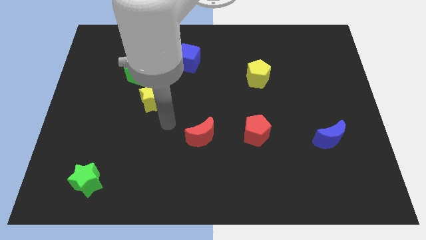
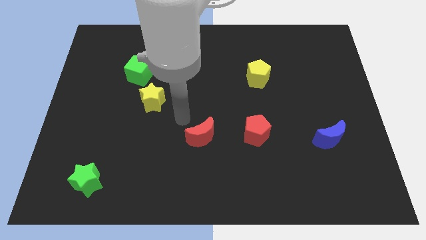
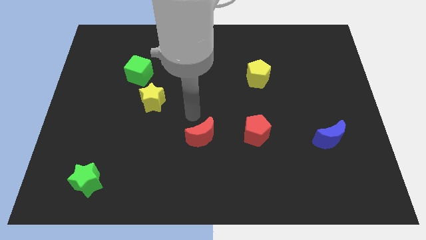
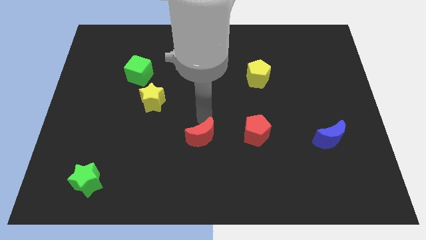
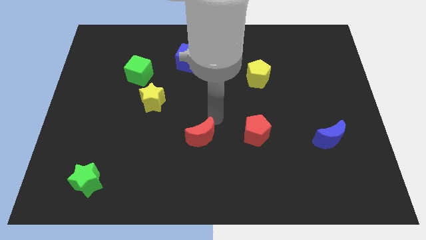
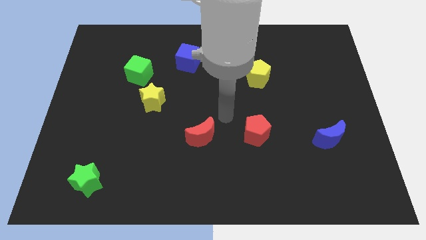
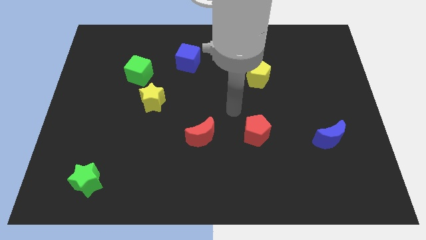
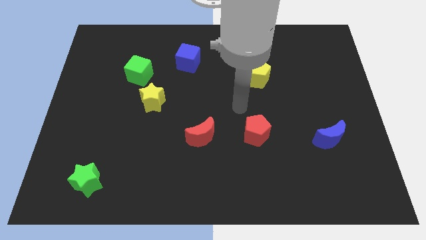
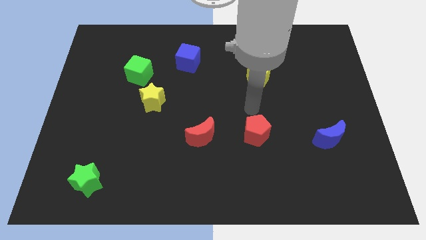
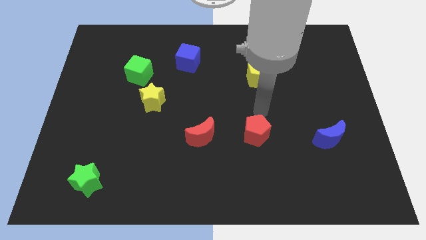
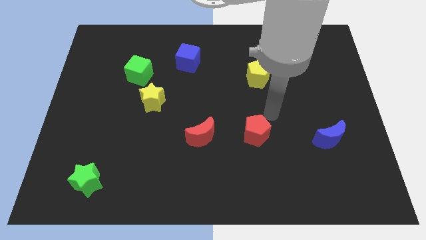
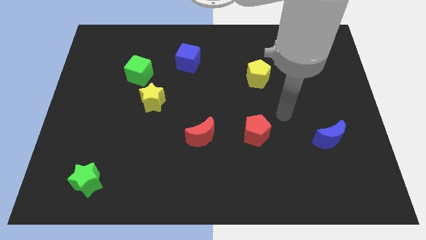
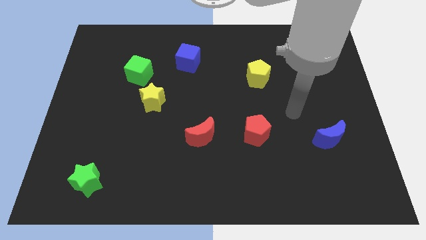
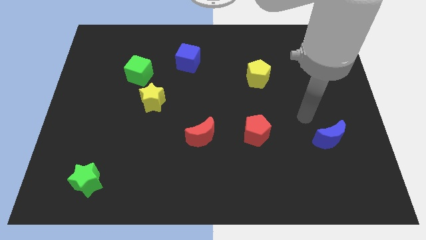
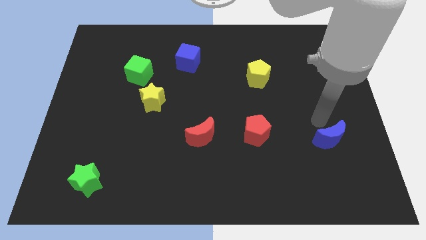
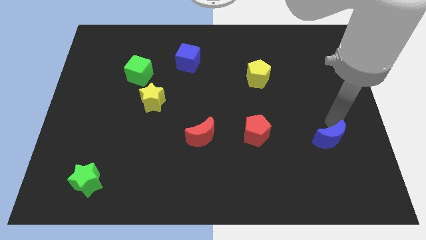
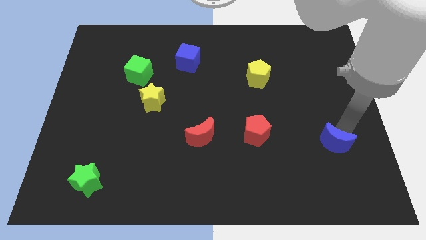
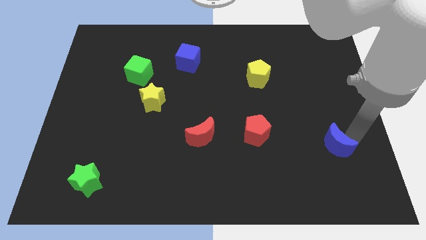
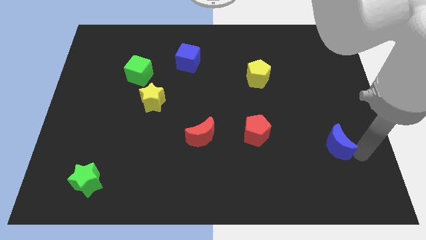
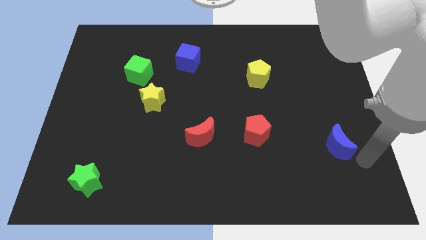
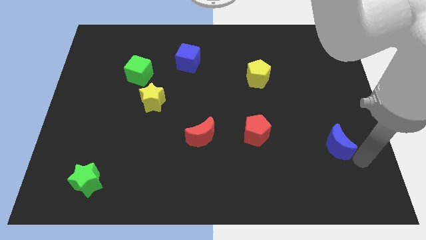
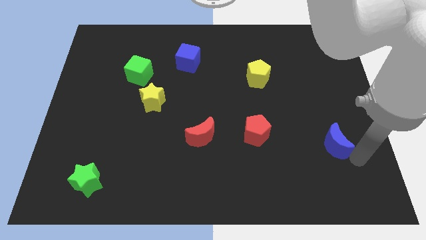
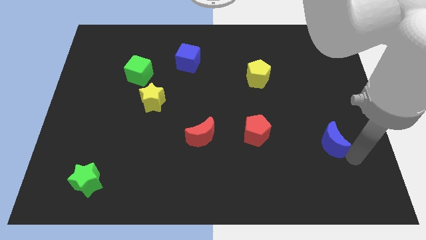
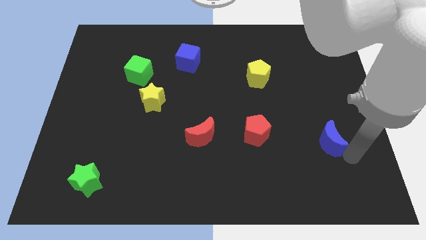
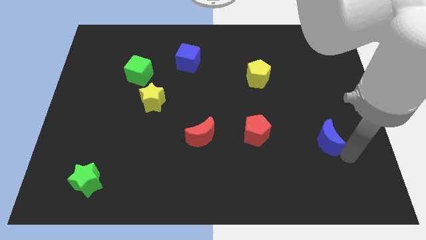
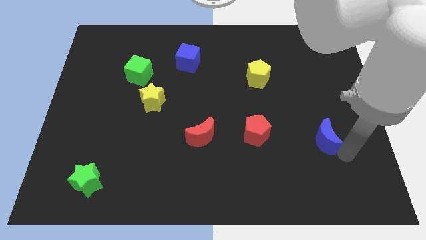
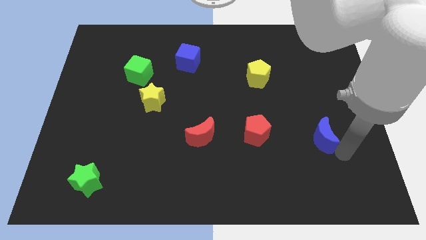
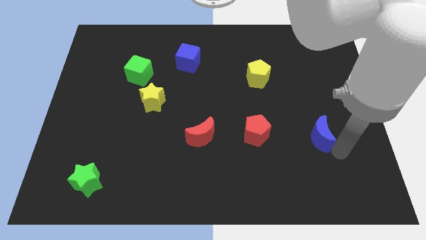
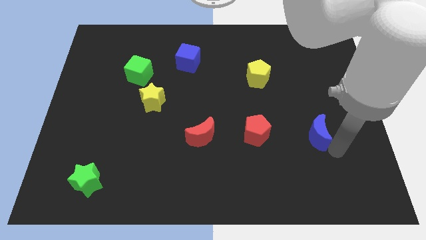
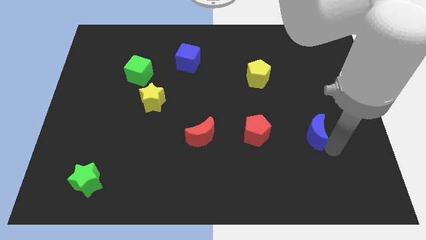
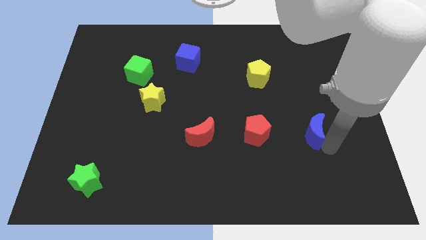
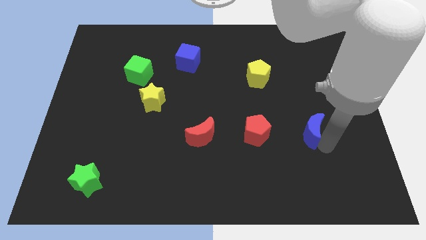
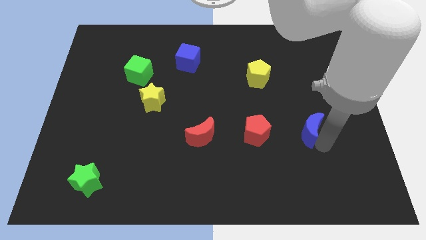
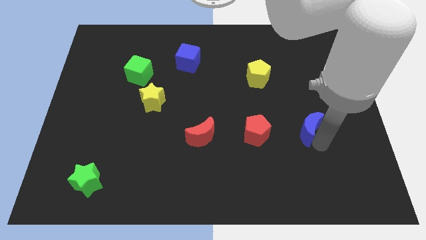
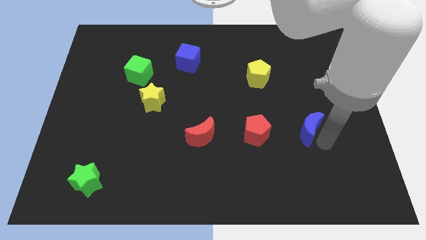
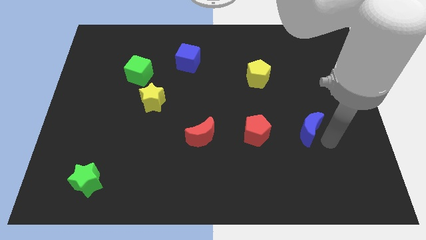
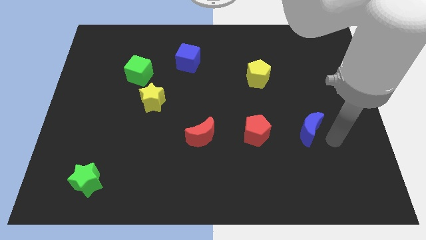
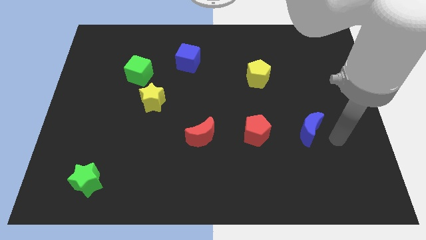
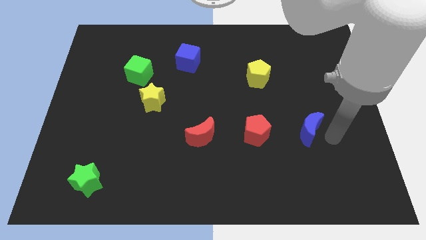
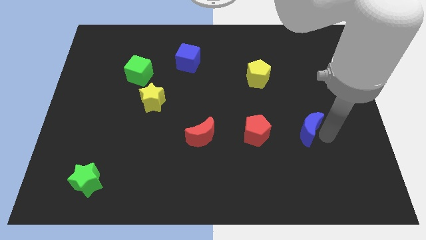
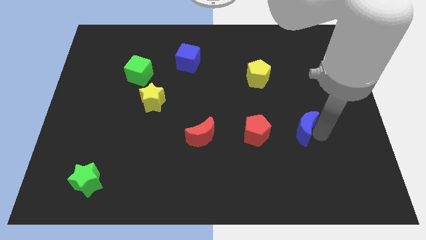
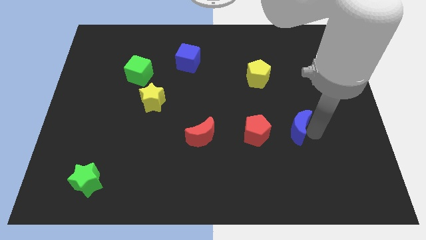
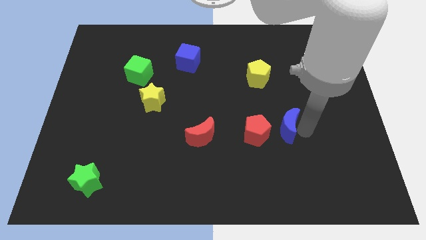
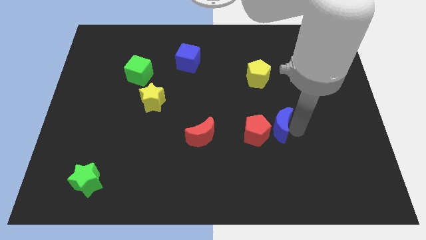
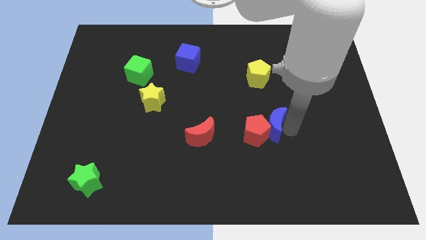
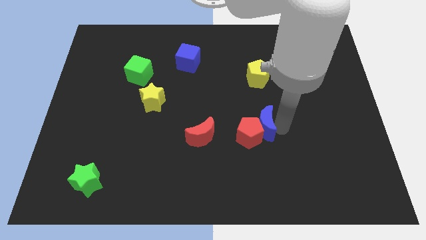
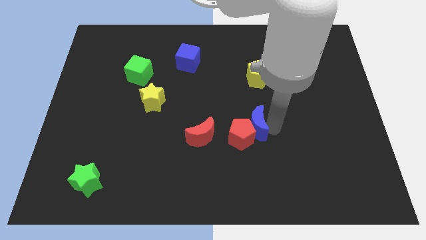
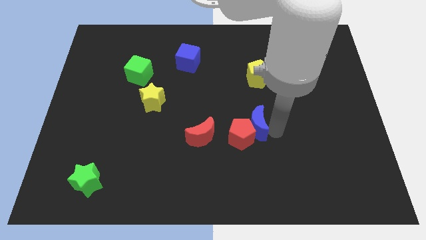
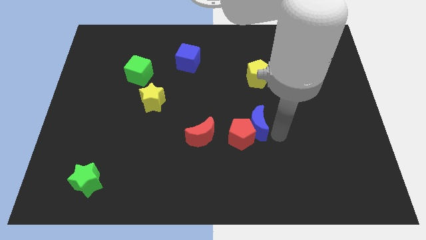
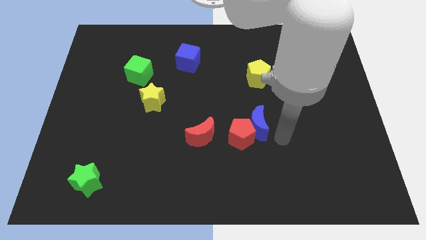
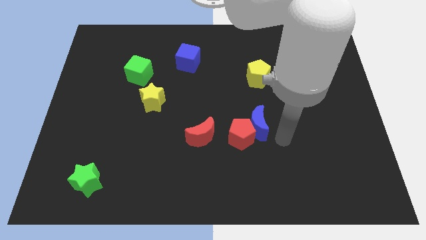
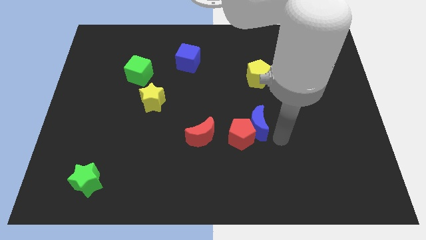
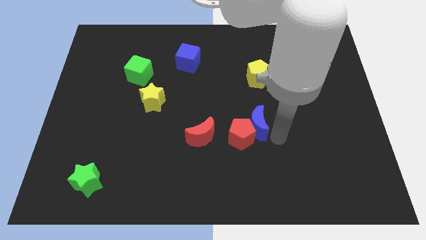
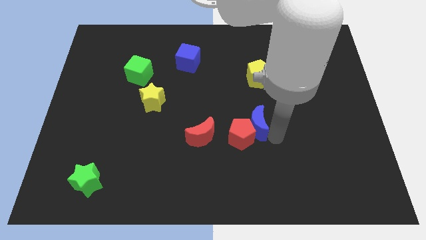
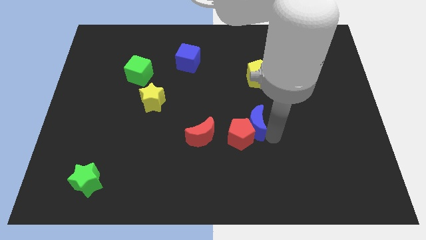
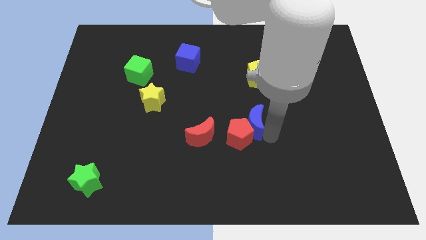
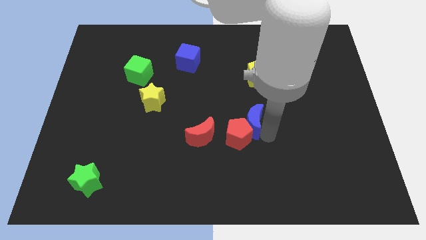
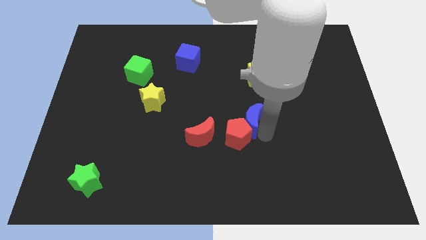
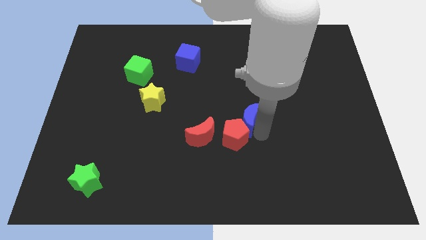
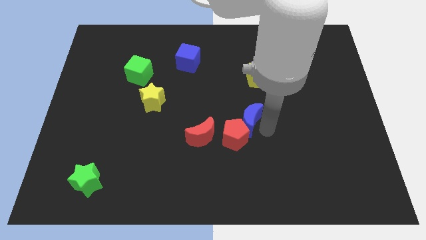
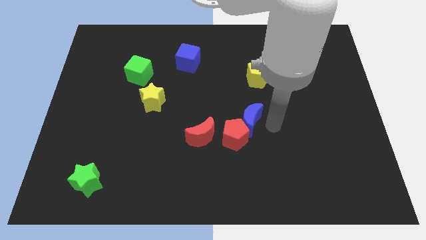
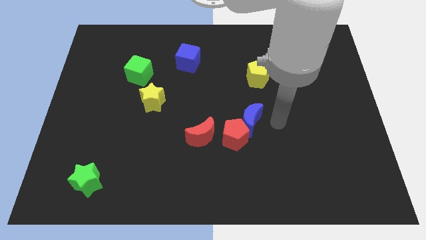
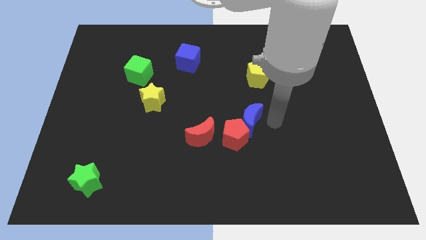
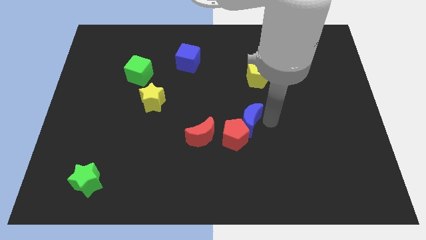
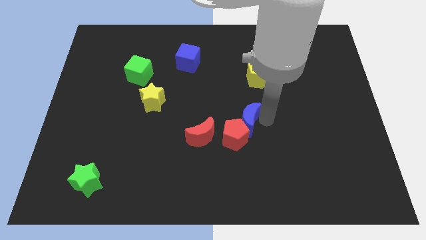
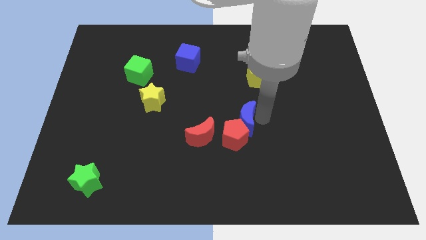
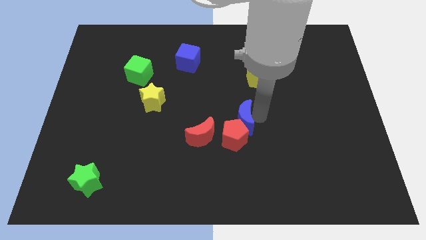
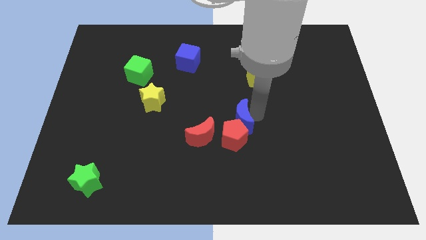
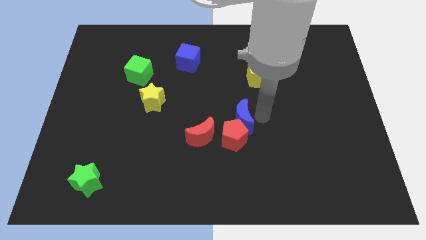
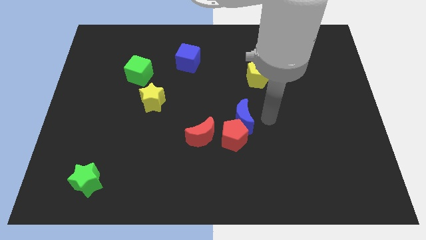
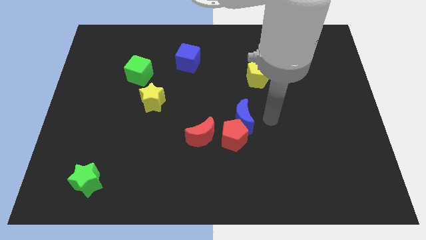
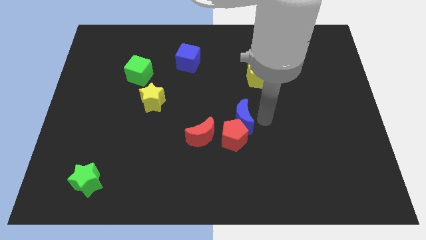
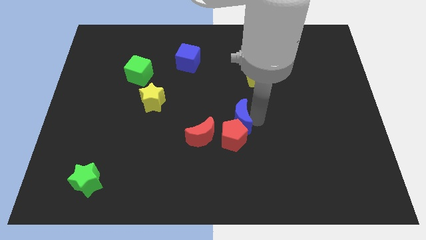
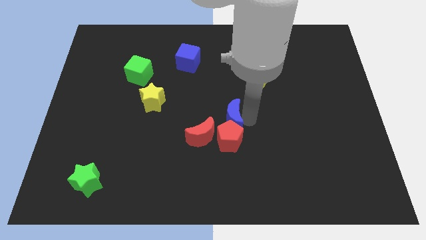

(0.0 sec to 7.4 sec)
push the blue moon to the left
